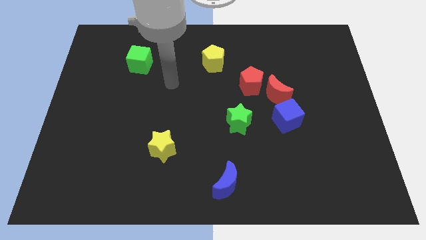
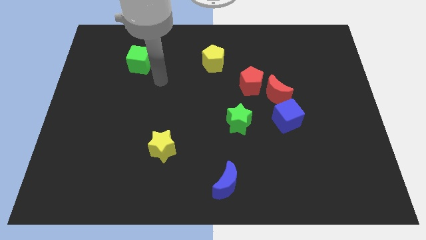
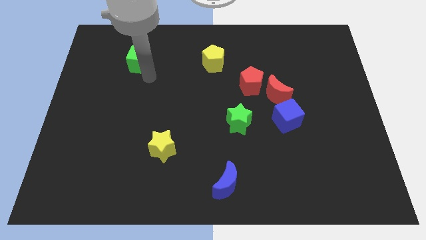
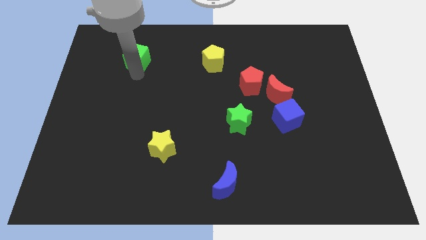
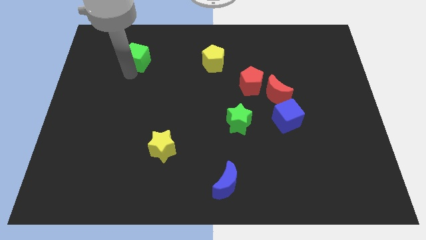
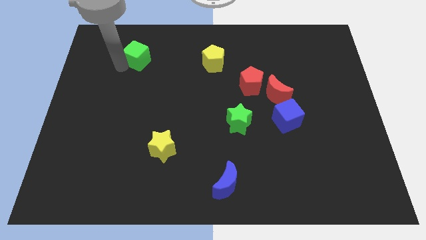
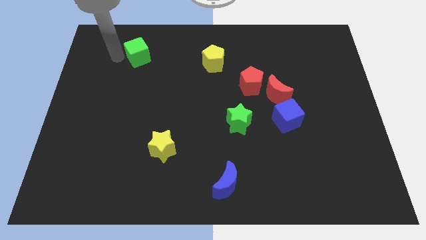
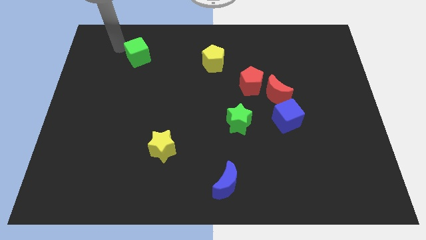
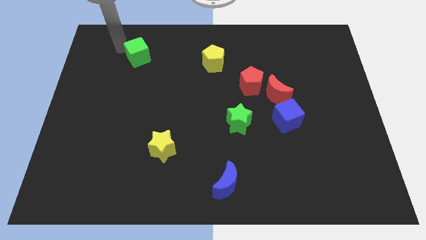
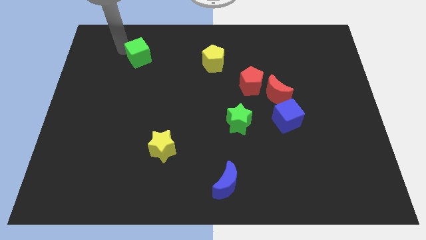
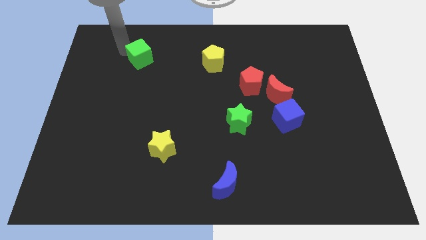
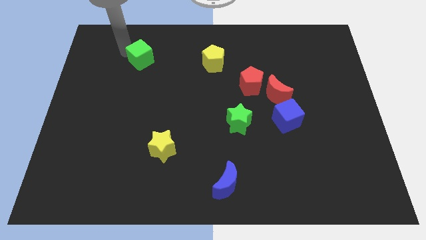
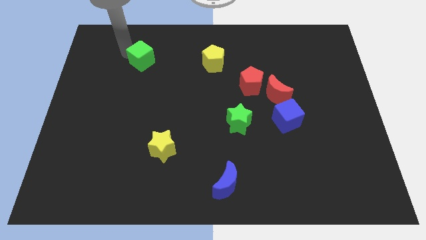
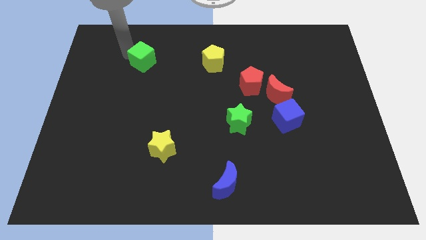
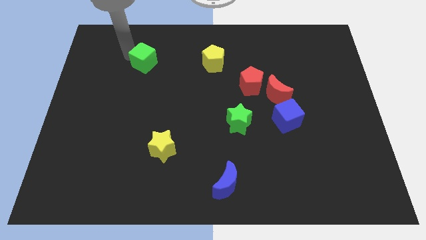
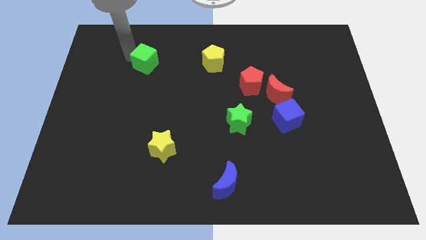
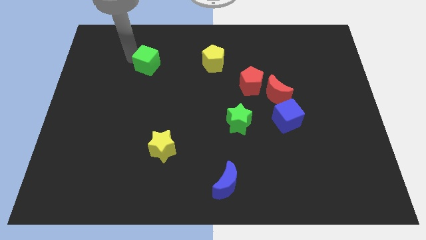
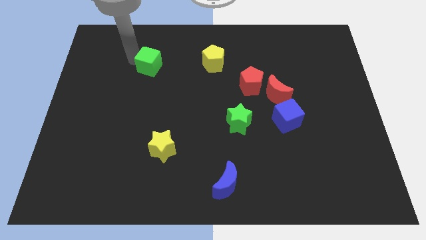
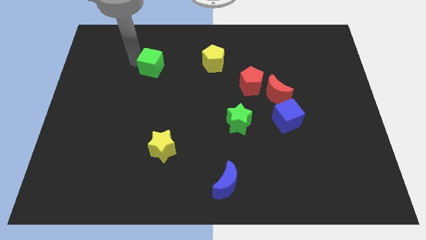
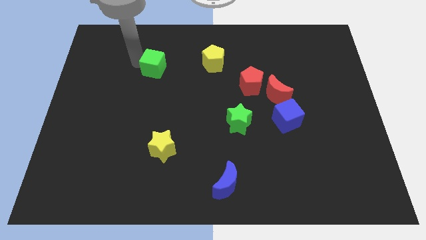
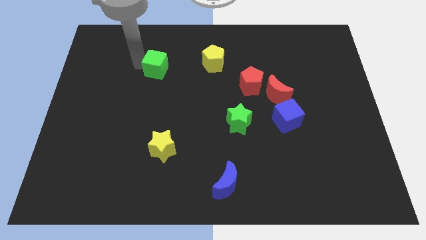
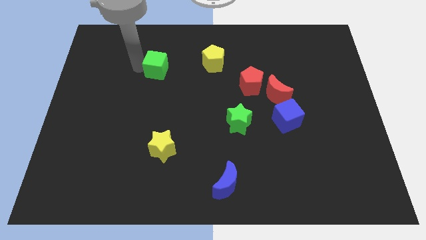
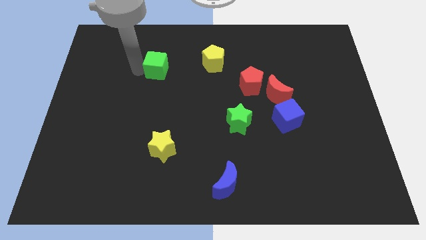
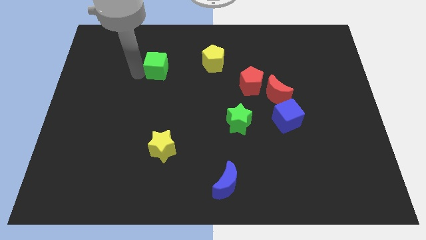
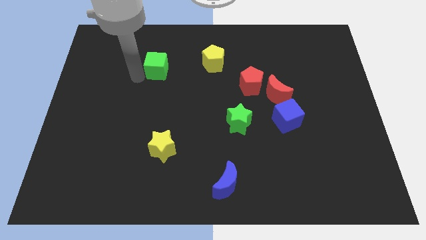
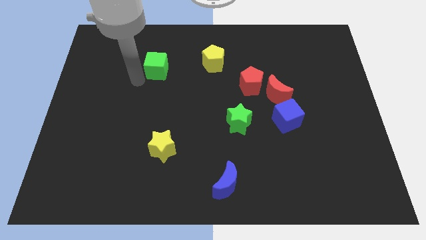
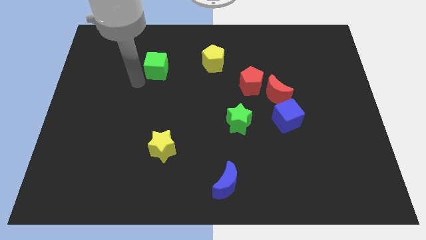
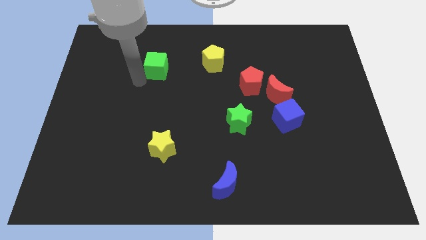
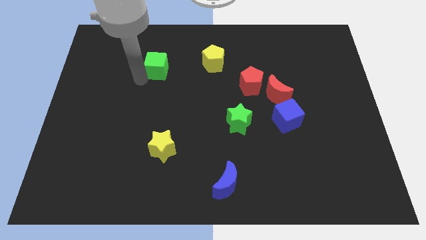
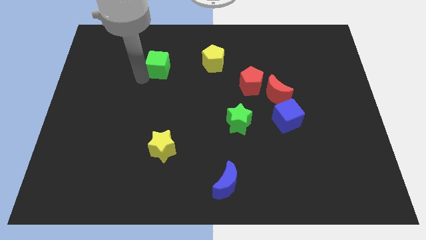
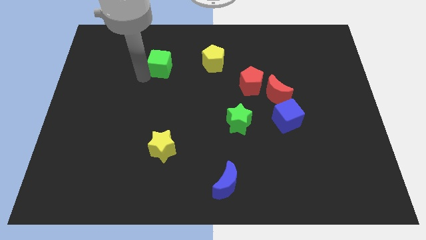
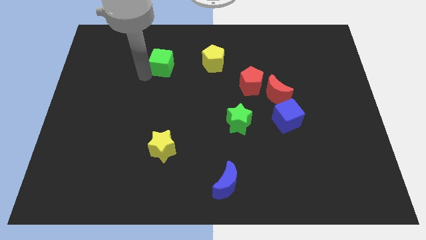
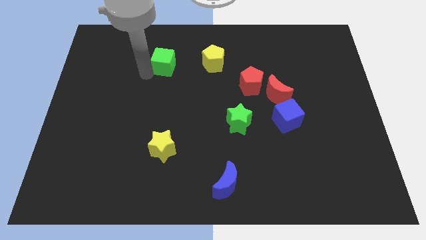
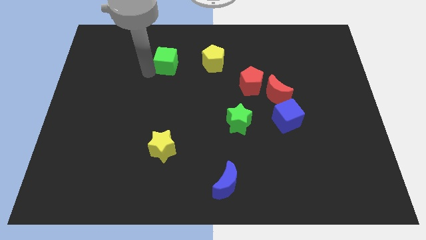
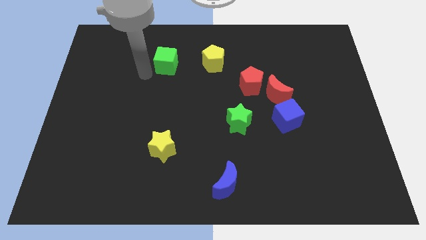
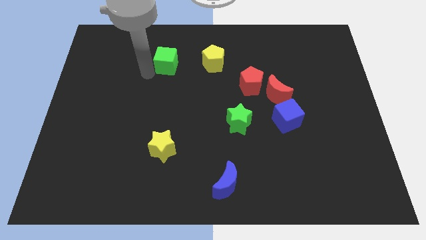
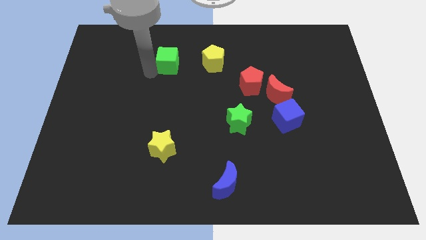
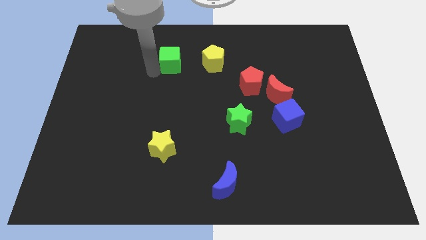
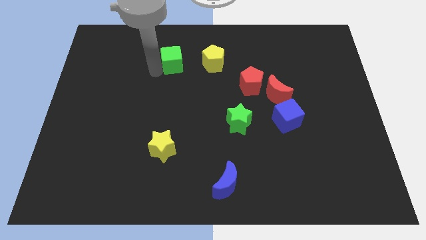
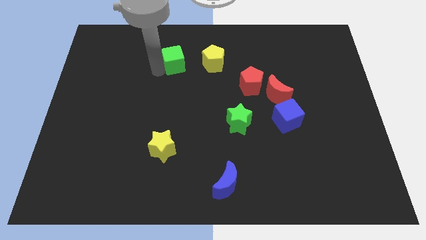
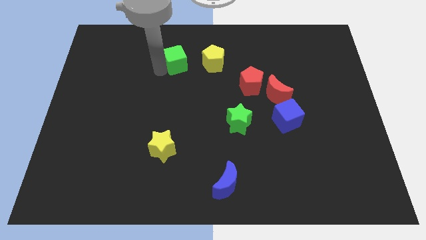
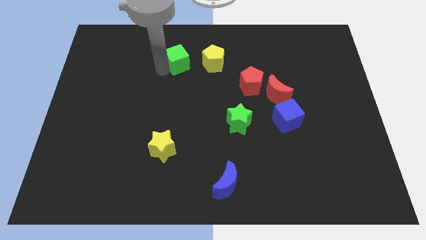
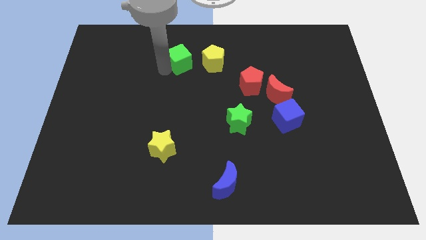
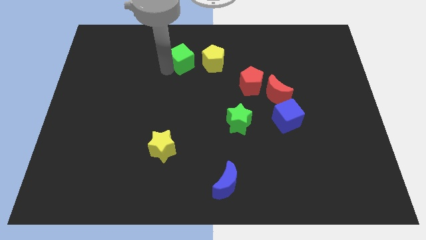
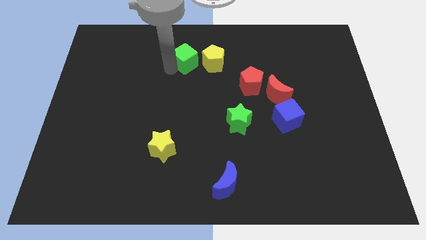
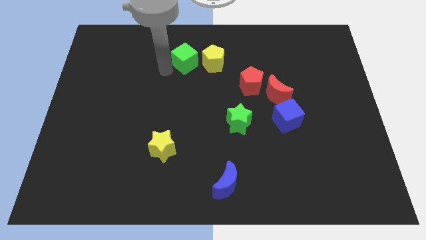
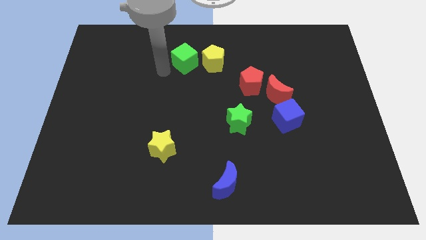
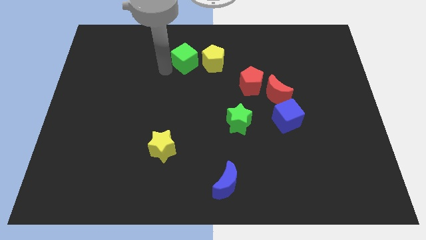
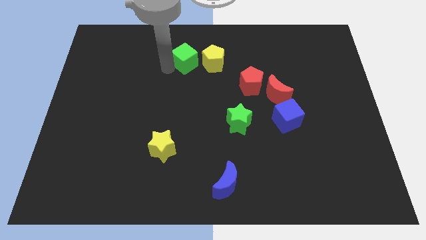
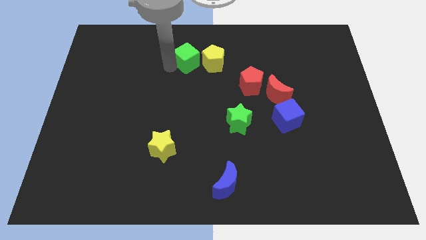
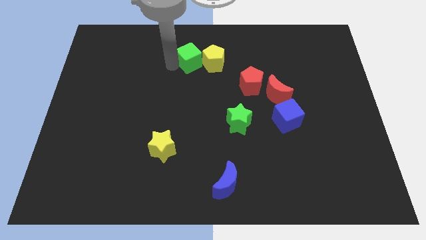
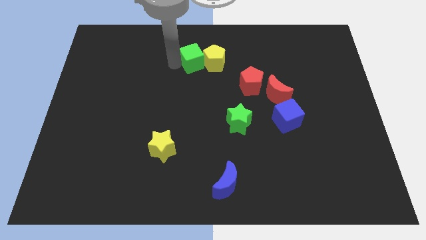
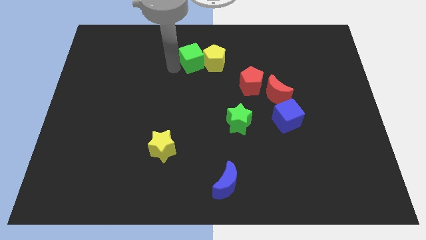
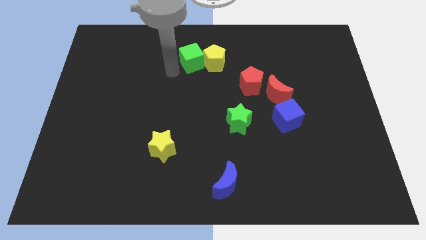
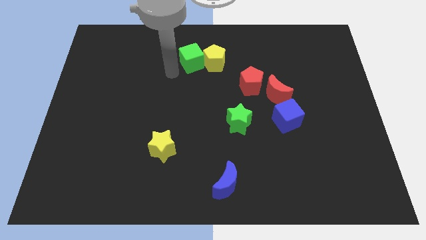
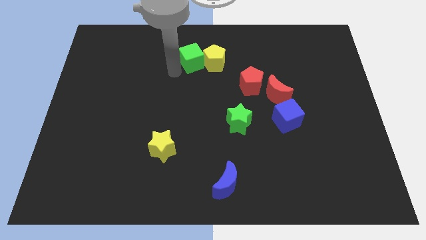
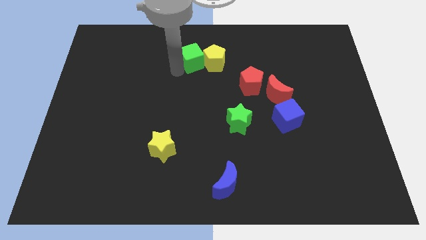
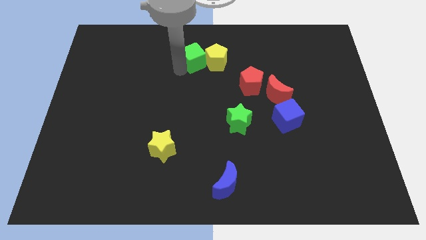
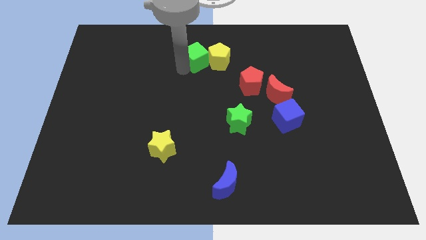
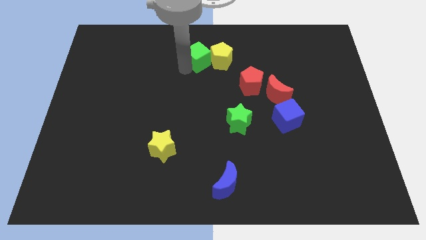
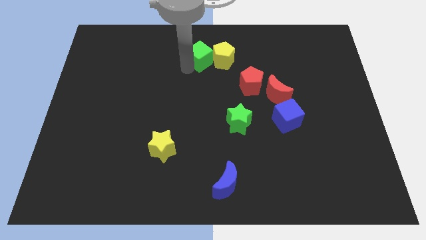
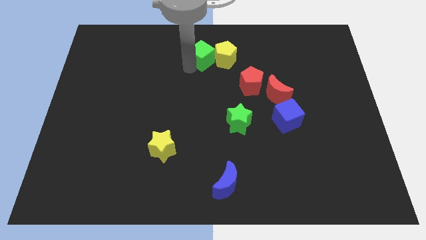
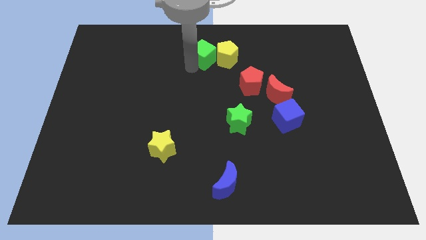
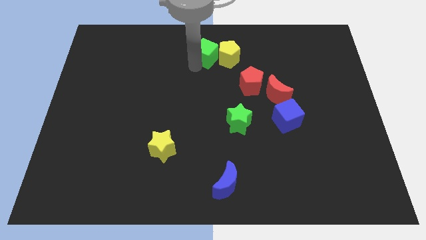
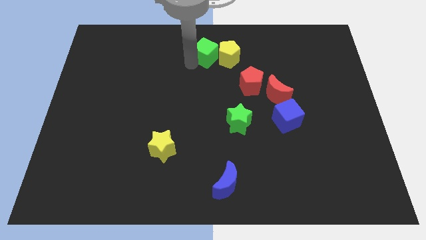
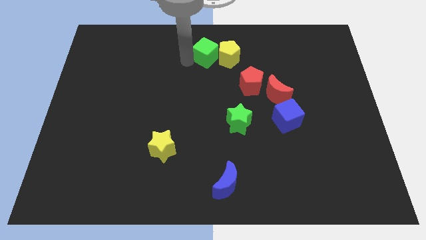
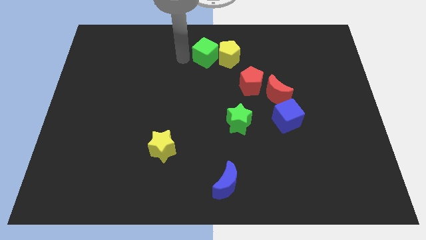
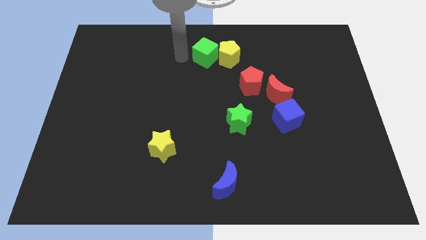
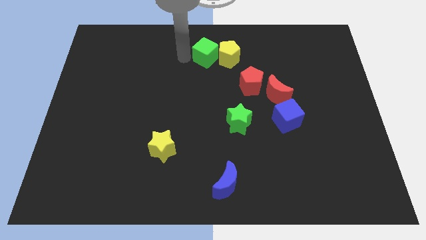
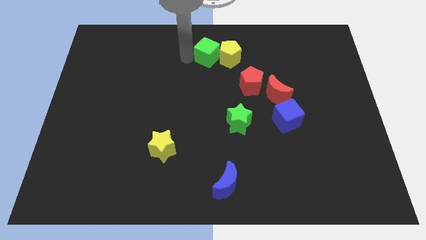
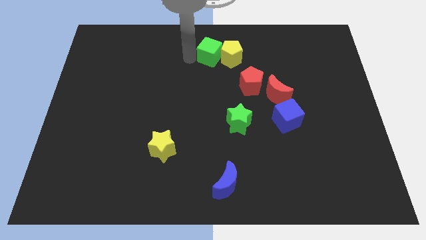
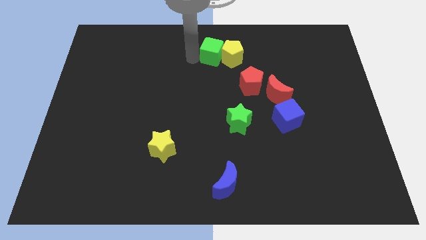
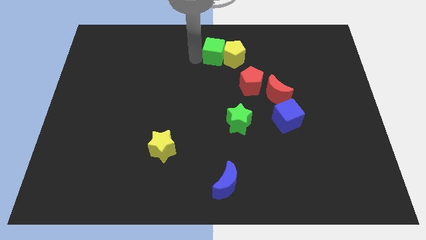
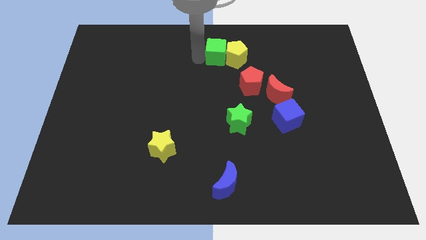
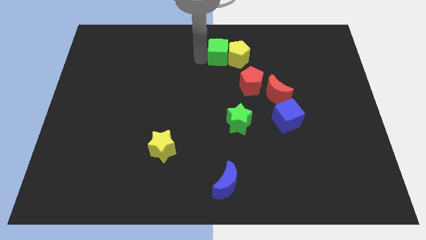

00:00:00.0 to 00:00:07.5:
push the green cube right

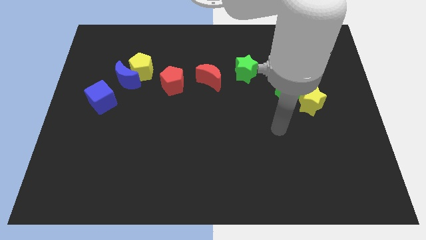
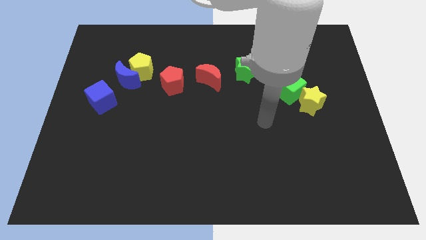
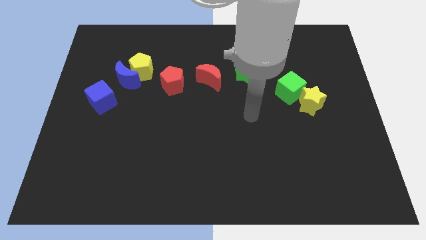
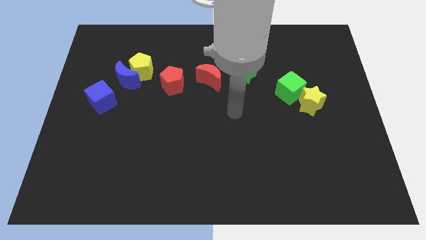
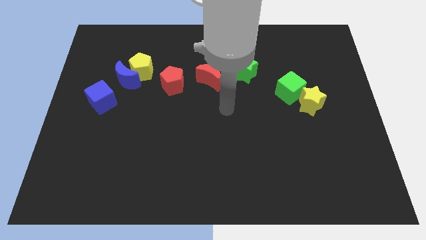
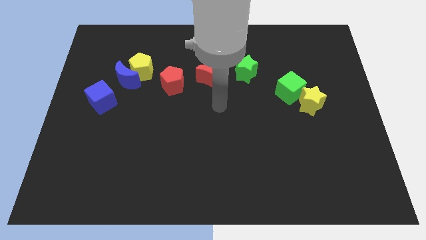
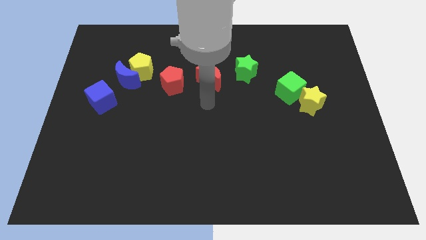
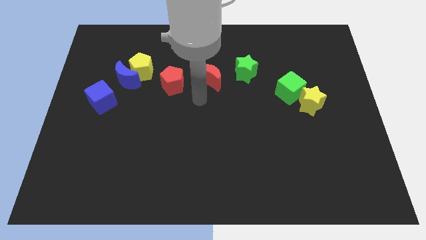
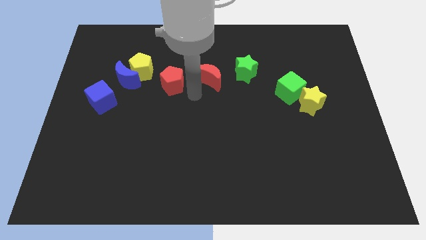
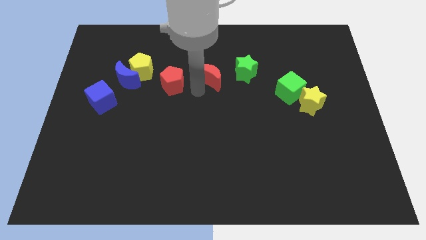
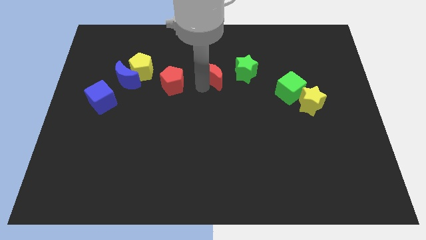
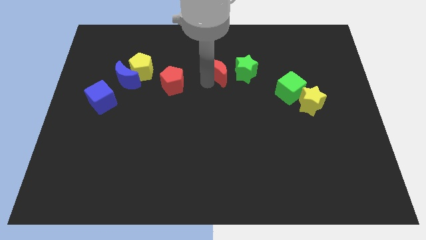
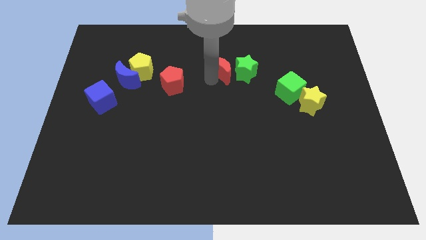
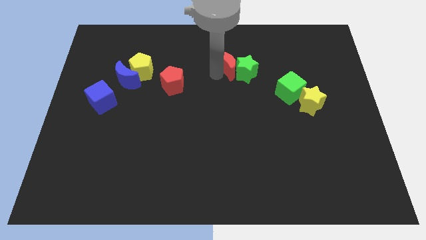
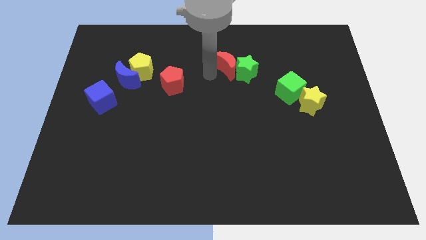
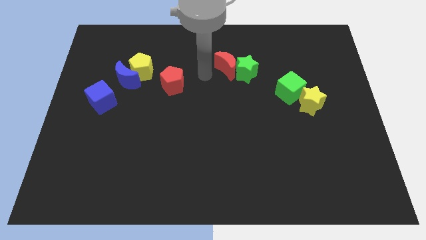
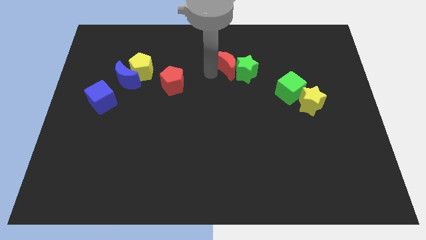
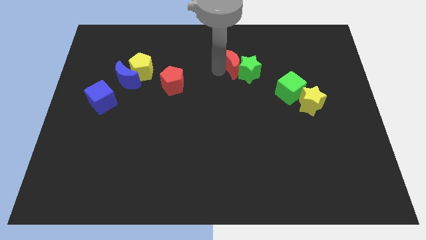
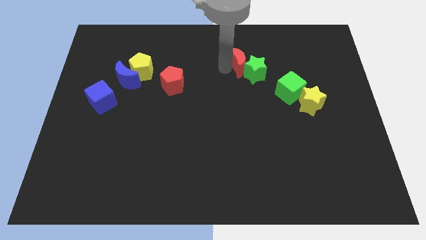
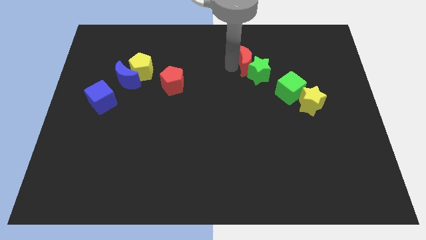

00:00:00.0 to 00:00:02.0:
slightly move the red moon to the right
